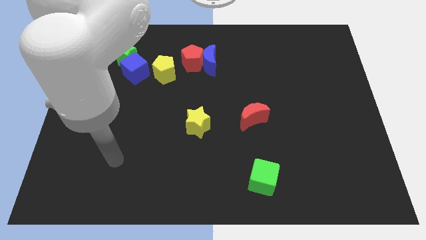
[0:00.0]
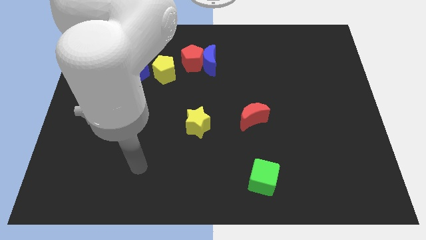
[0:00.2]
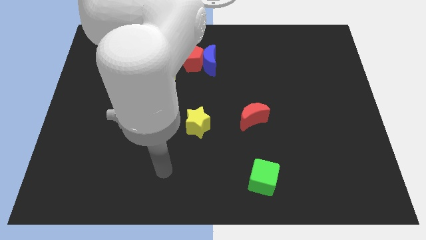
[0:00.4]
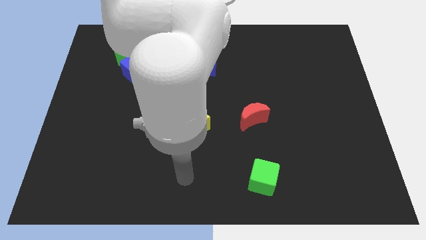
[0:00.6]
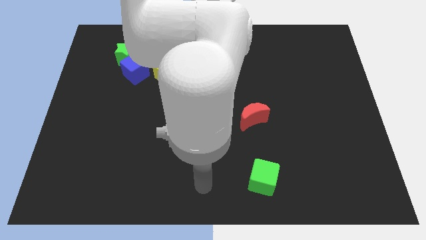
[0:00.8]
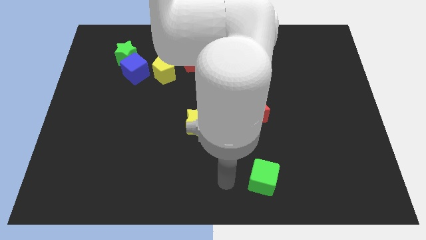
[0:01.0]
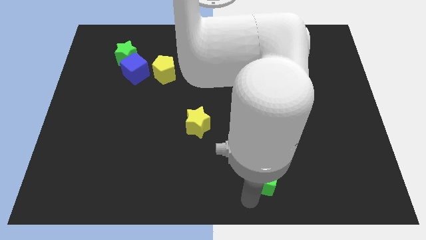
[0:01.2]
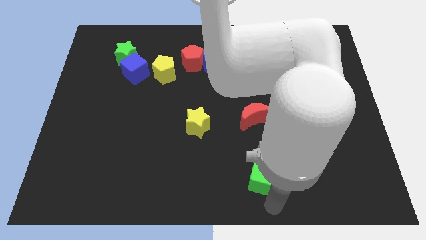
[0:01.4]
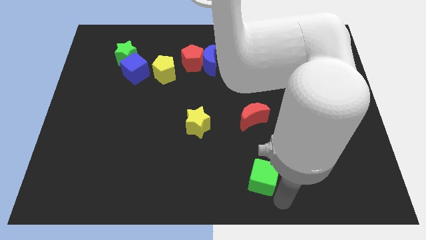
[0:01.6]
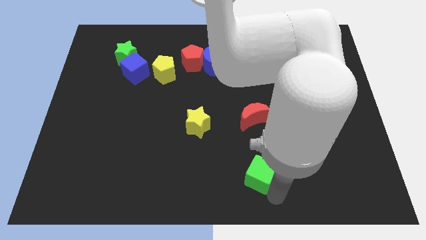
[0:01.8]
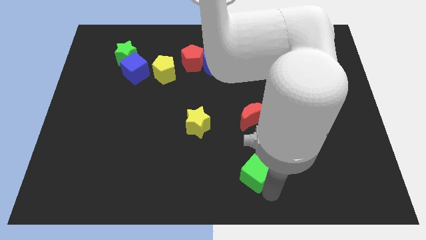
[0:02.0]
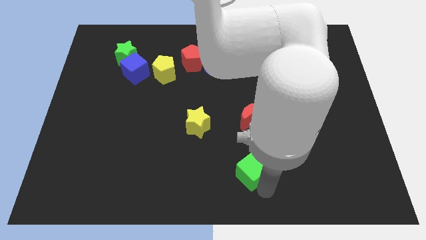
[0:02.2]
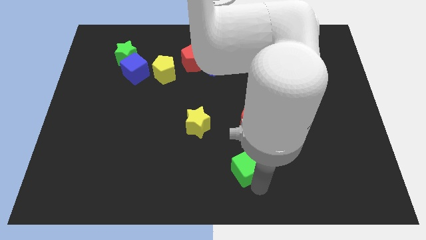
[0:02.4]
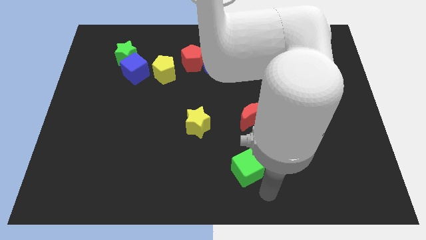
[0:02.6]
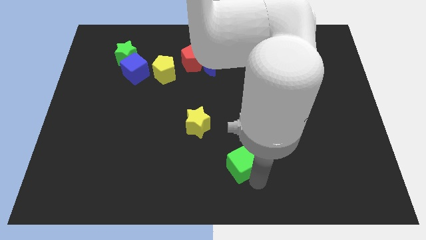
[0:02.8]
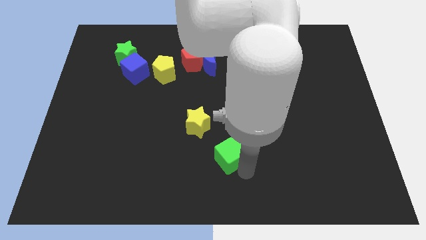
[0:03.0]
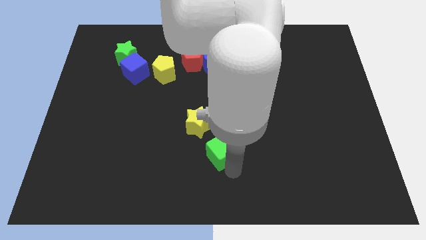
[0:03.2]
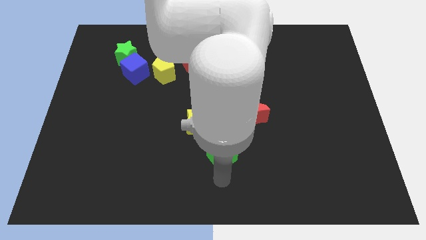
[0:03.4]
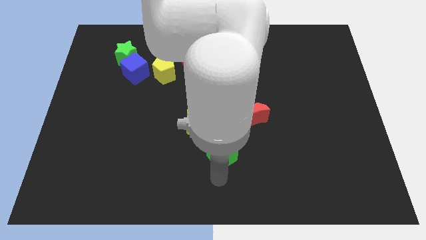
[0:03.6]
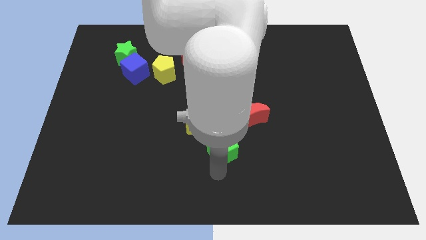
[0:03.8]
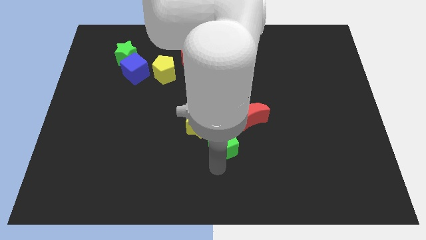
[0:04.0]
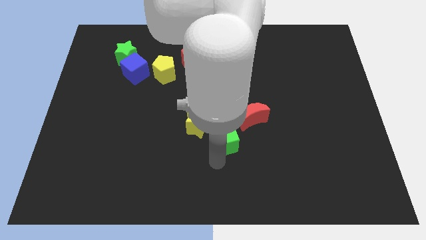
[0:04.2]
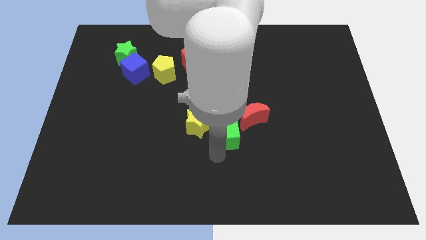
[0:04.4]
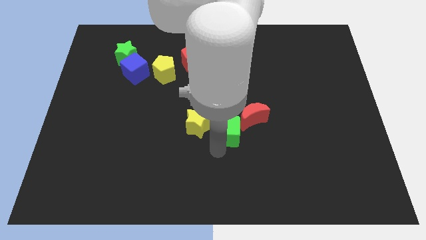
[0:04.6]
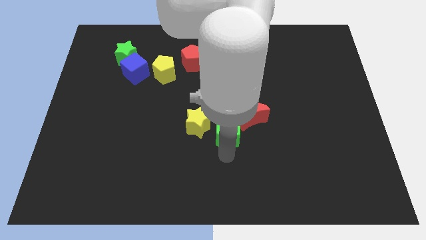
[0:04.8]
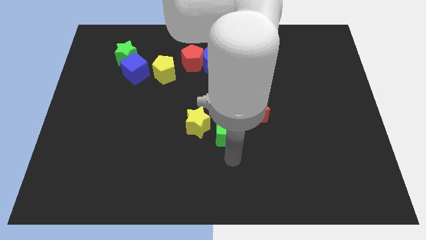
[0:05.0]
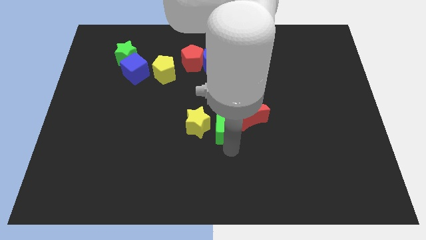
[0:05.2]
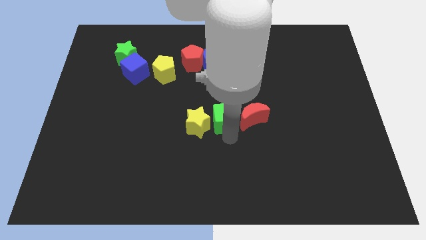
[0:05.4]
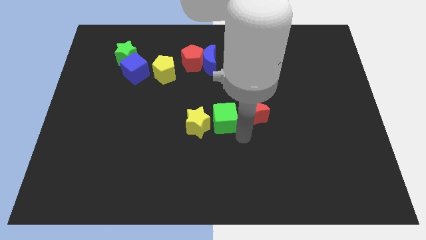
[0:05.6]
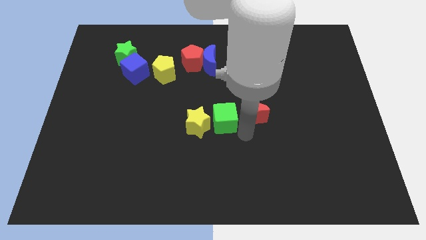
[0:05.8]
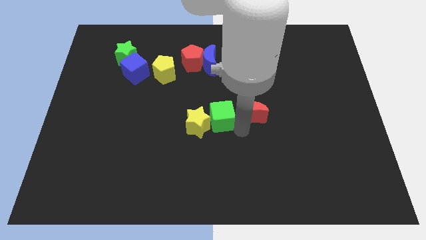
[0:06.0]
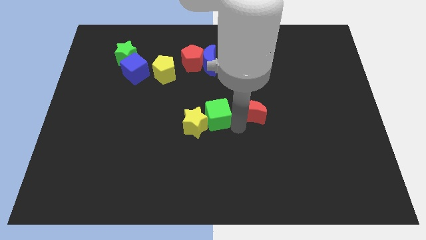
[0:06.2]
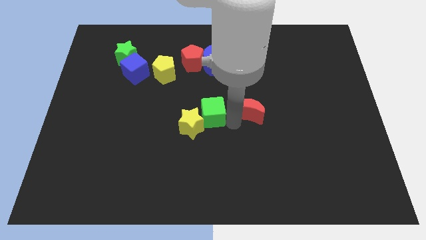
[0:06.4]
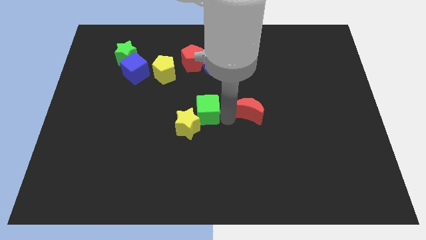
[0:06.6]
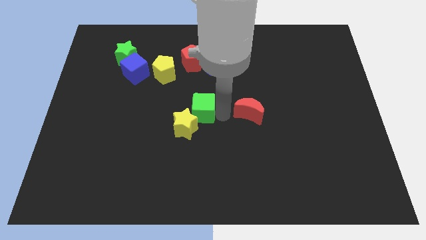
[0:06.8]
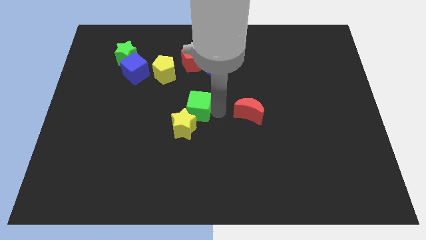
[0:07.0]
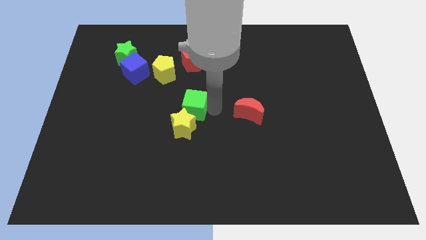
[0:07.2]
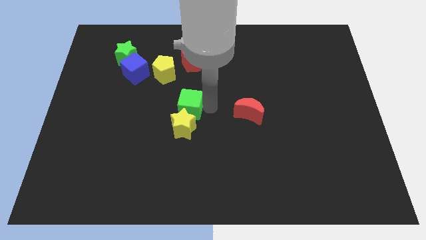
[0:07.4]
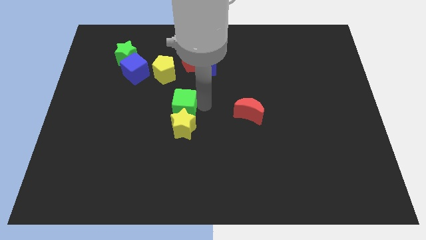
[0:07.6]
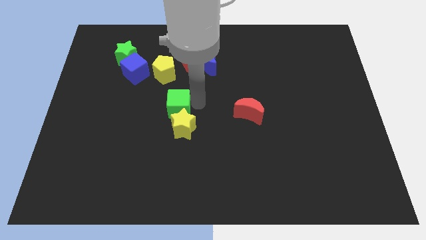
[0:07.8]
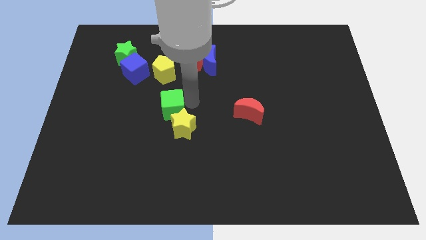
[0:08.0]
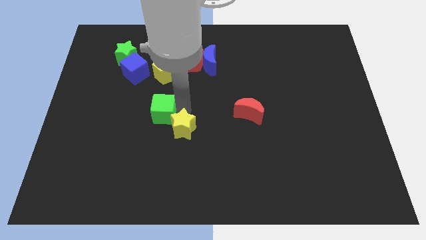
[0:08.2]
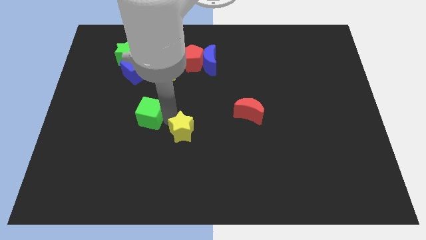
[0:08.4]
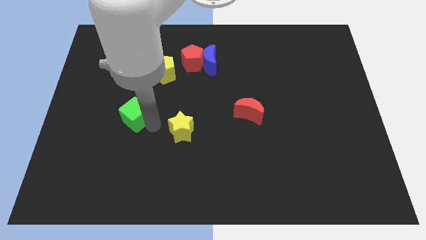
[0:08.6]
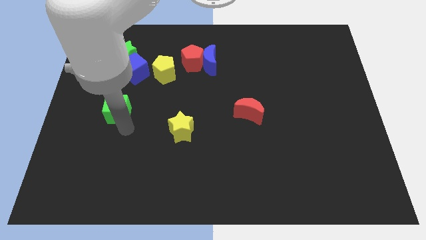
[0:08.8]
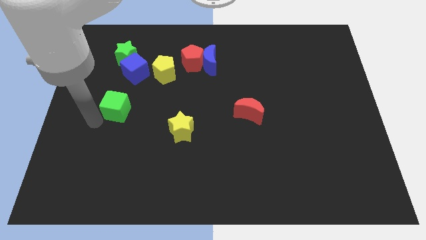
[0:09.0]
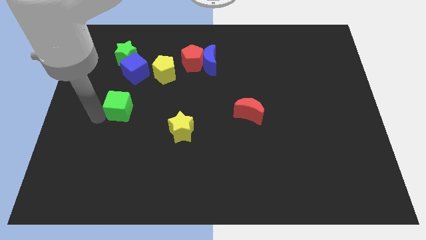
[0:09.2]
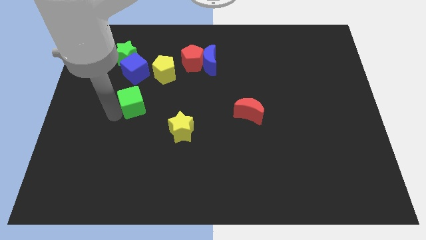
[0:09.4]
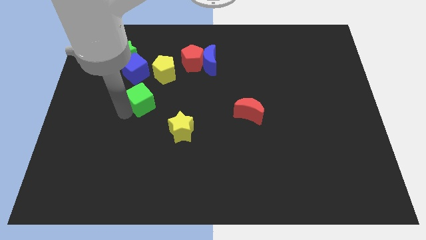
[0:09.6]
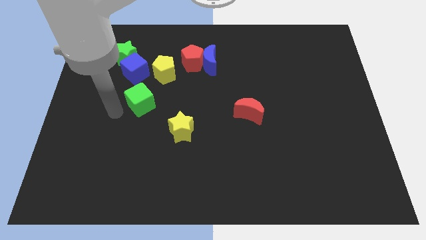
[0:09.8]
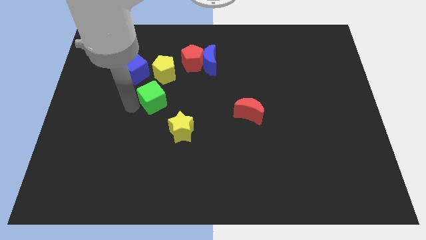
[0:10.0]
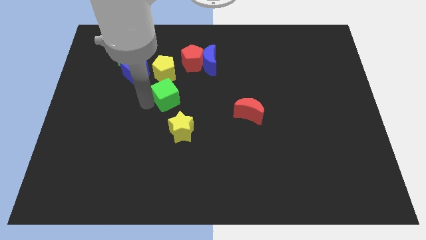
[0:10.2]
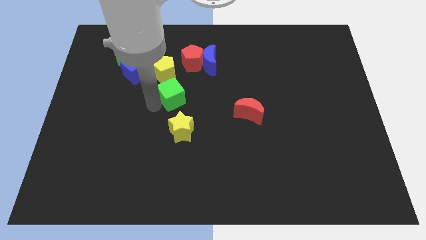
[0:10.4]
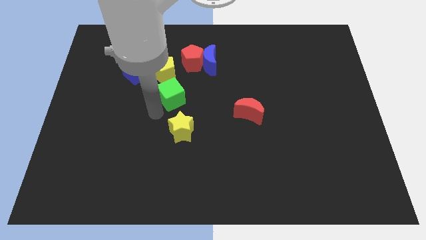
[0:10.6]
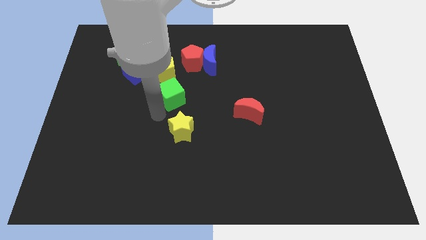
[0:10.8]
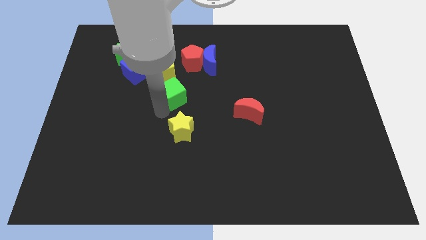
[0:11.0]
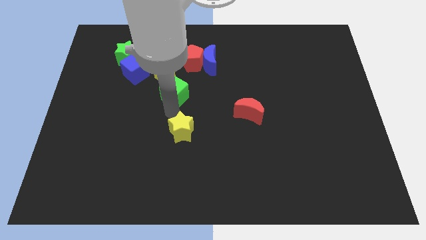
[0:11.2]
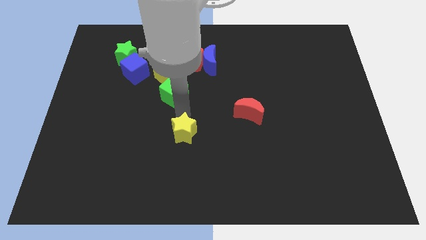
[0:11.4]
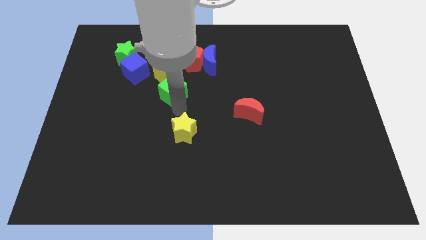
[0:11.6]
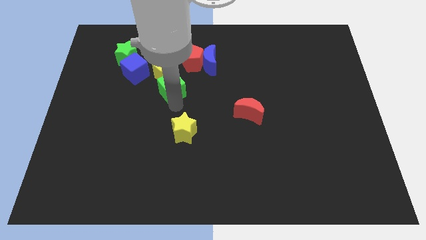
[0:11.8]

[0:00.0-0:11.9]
put the green cube to the yellow pentagon
